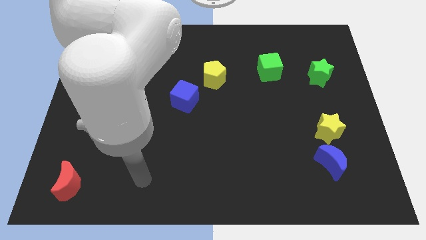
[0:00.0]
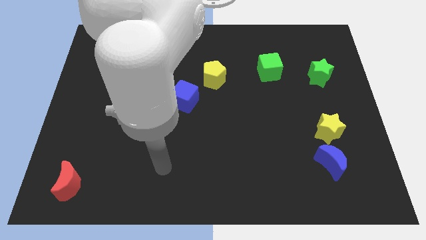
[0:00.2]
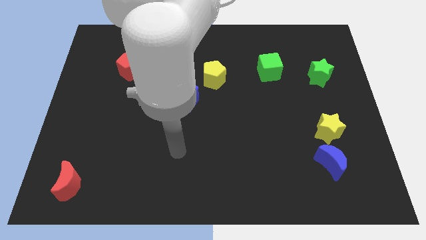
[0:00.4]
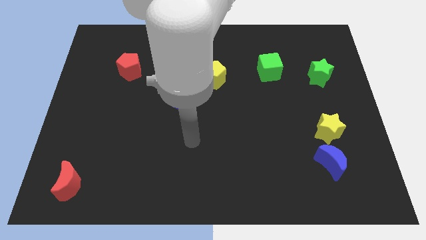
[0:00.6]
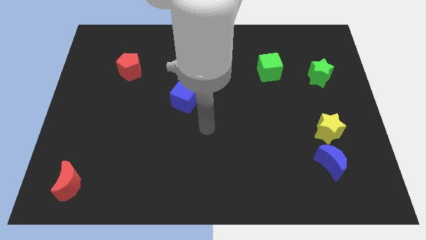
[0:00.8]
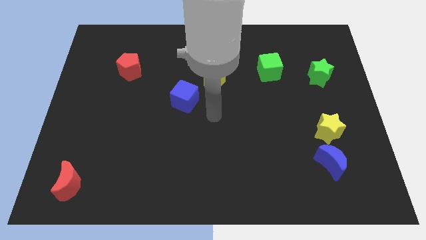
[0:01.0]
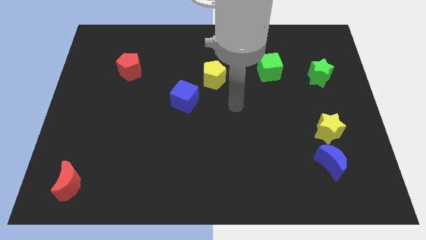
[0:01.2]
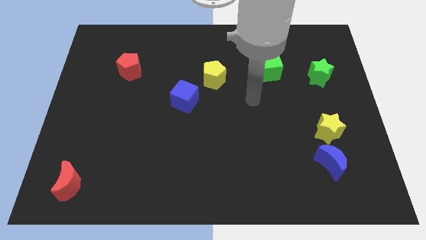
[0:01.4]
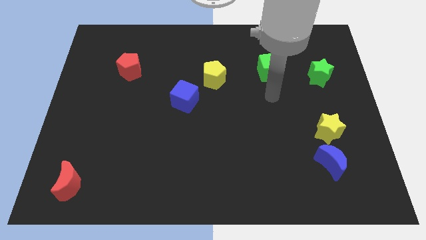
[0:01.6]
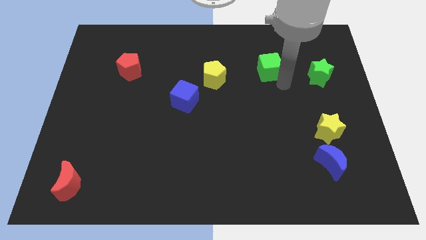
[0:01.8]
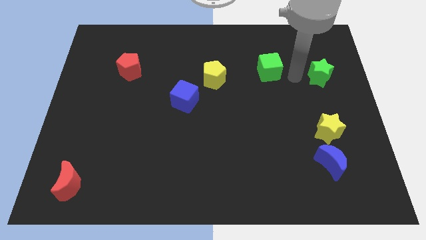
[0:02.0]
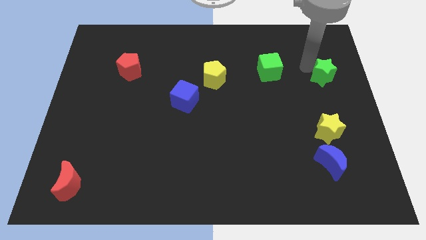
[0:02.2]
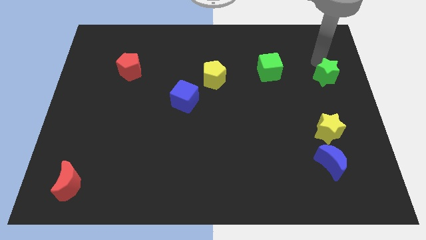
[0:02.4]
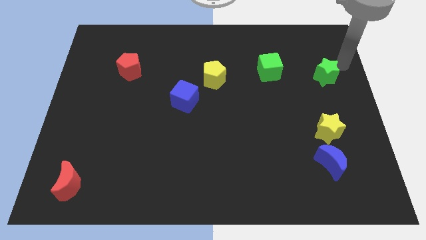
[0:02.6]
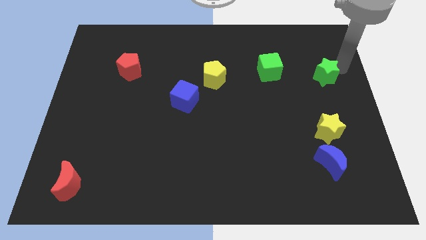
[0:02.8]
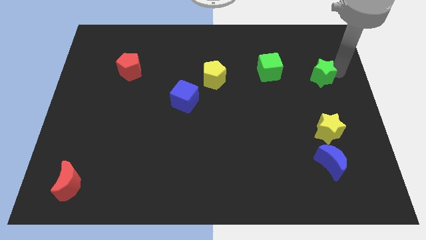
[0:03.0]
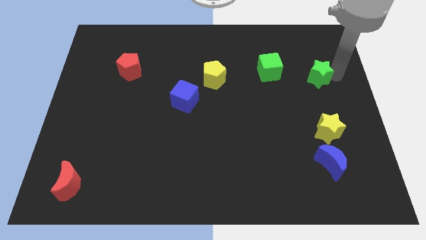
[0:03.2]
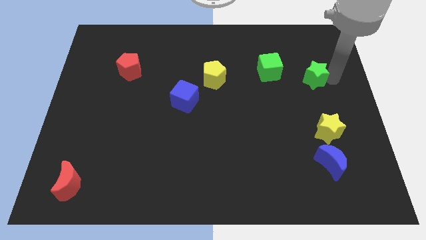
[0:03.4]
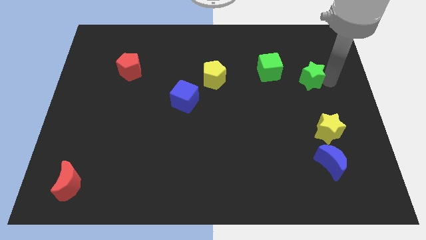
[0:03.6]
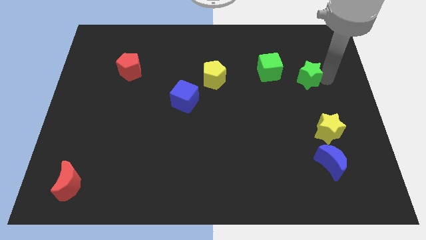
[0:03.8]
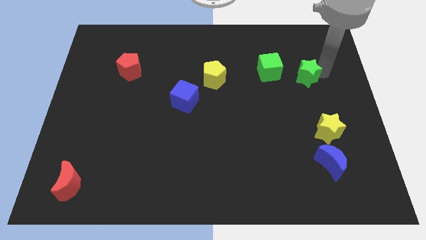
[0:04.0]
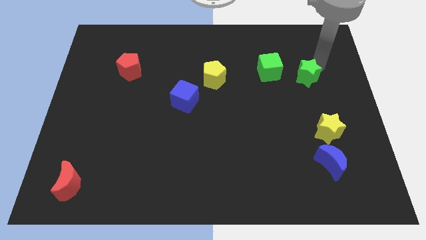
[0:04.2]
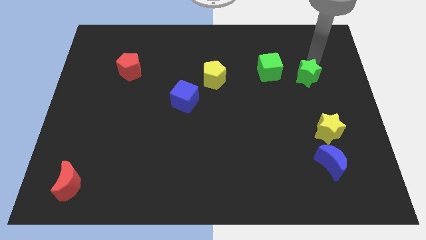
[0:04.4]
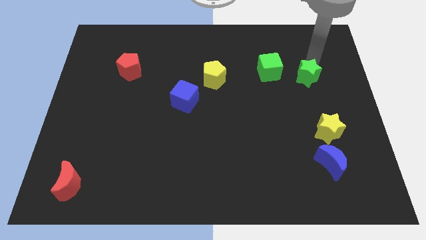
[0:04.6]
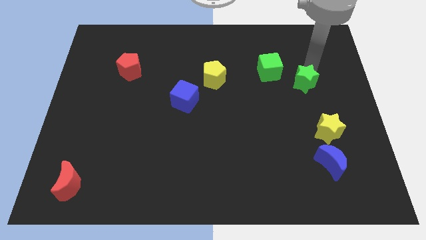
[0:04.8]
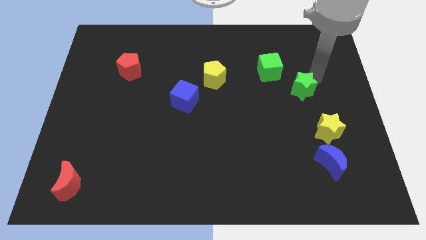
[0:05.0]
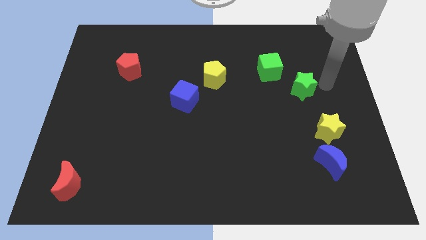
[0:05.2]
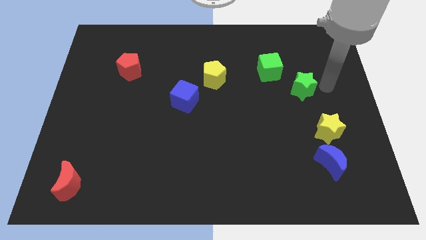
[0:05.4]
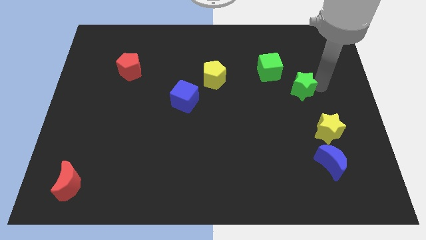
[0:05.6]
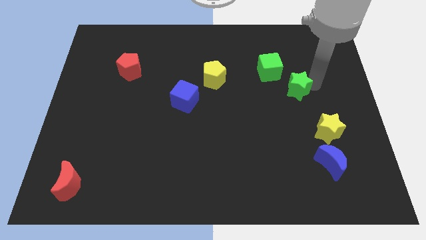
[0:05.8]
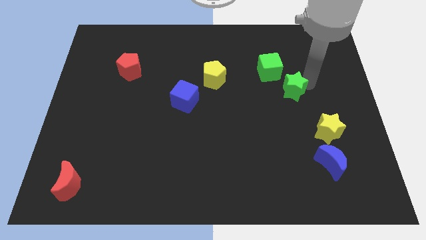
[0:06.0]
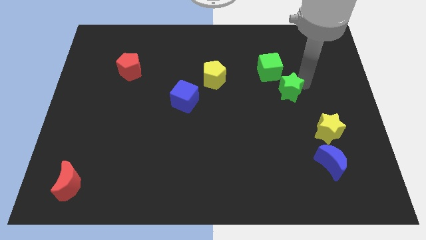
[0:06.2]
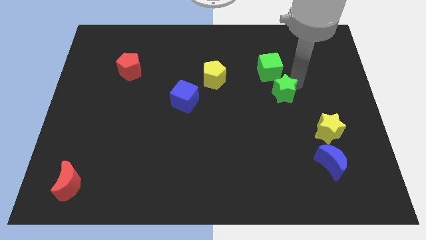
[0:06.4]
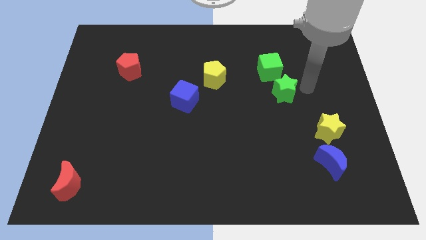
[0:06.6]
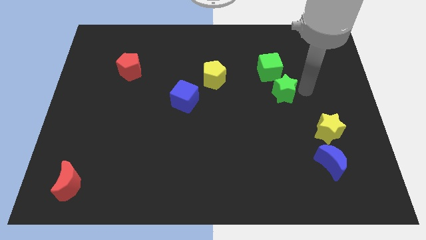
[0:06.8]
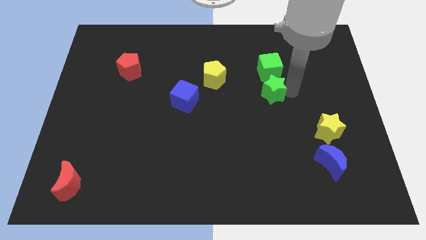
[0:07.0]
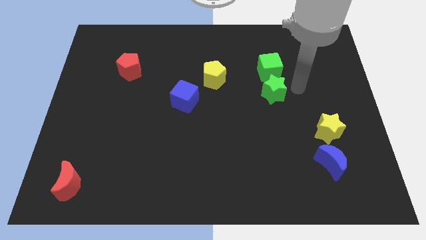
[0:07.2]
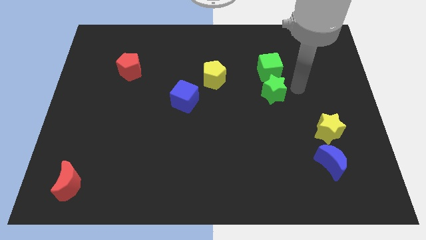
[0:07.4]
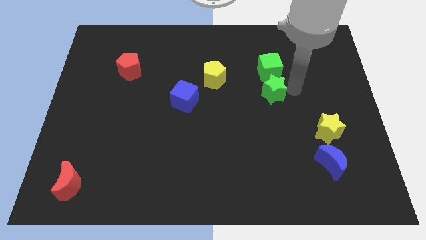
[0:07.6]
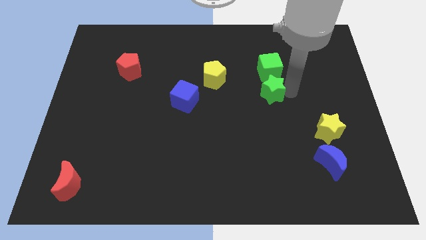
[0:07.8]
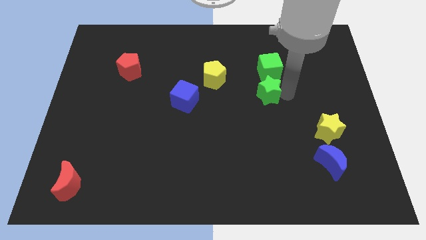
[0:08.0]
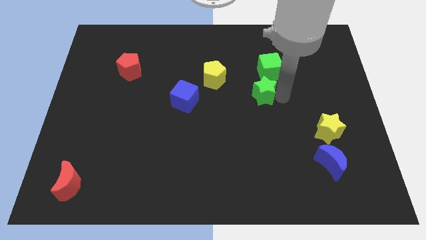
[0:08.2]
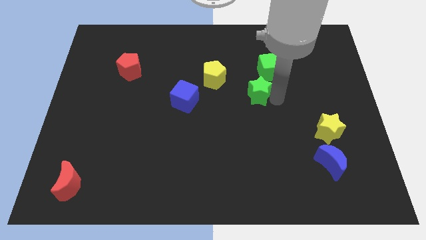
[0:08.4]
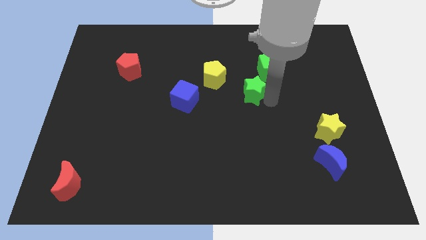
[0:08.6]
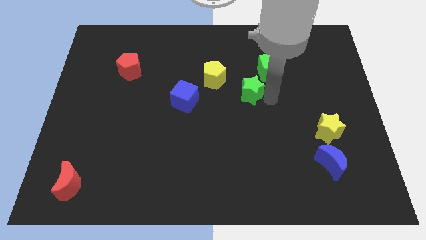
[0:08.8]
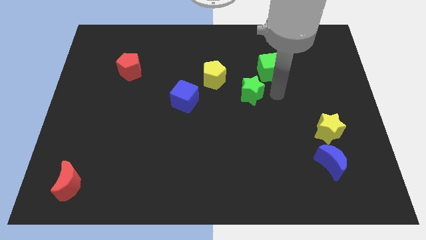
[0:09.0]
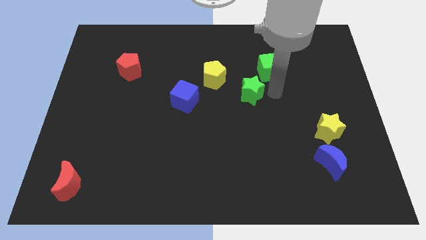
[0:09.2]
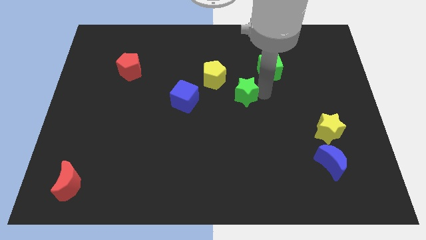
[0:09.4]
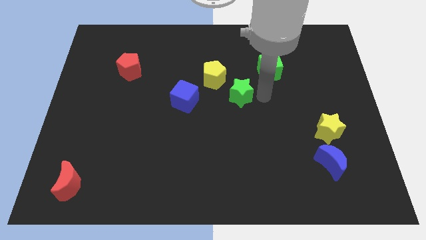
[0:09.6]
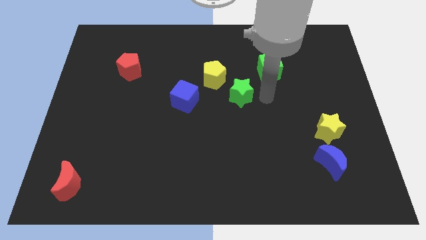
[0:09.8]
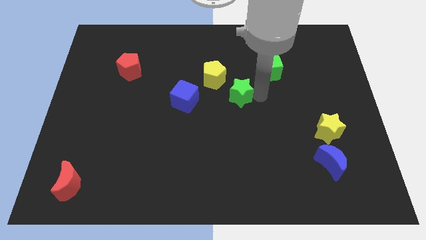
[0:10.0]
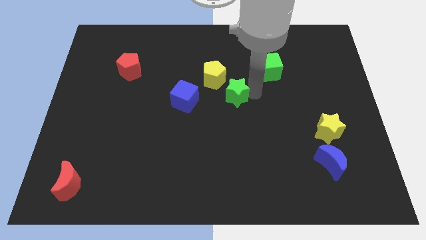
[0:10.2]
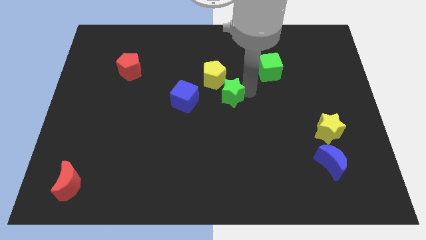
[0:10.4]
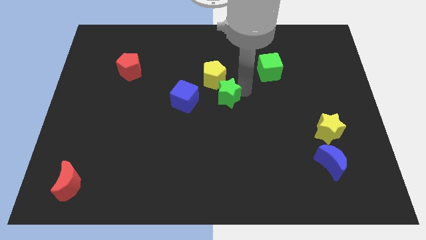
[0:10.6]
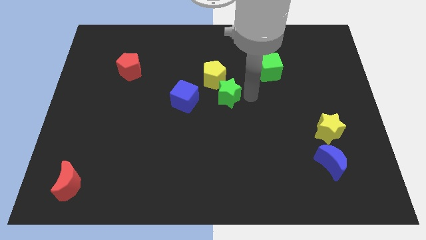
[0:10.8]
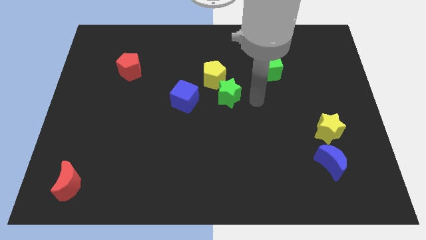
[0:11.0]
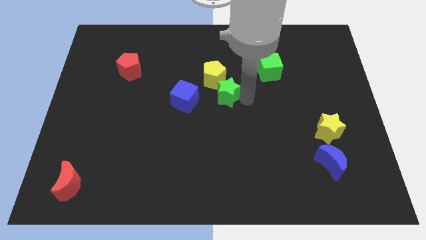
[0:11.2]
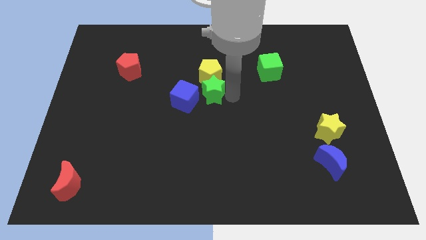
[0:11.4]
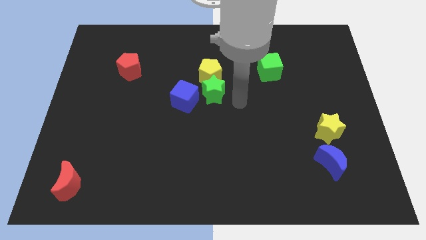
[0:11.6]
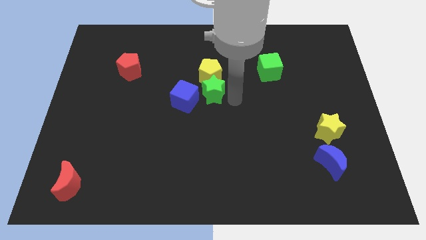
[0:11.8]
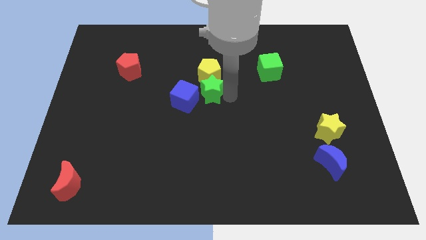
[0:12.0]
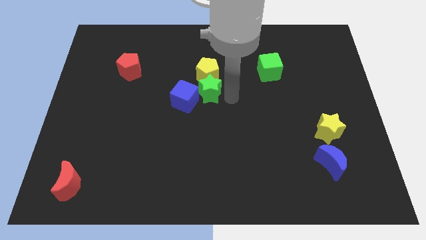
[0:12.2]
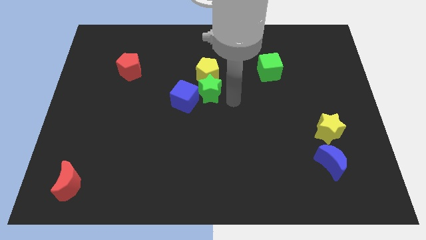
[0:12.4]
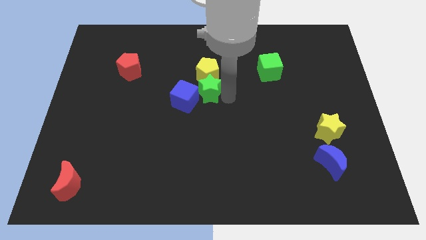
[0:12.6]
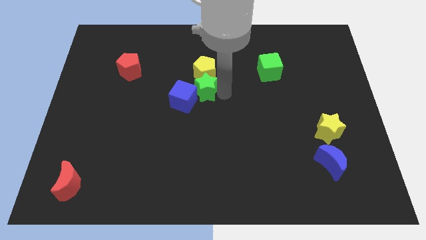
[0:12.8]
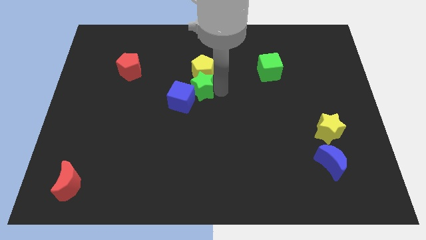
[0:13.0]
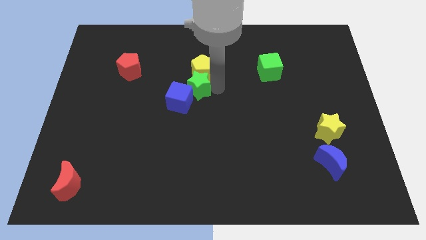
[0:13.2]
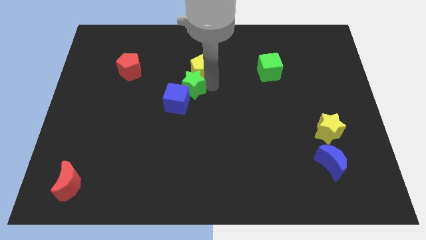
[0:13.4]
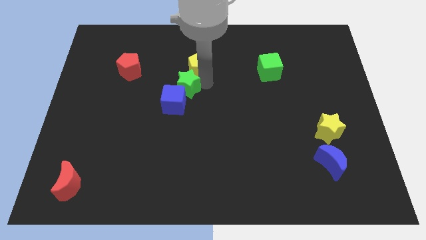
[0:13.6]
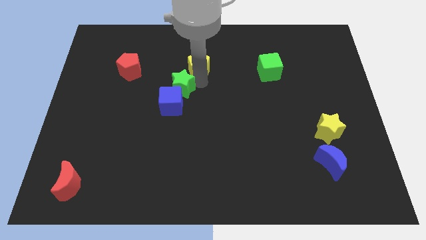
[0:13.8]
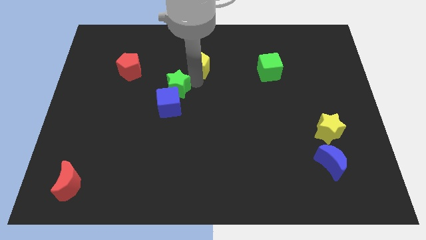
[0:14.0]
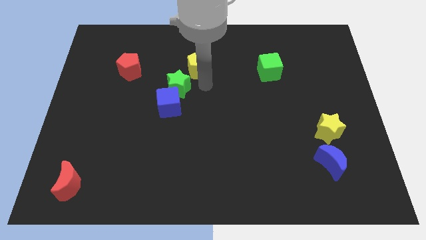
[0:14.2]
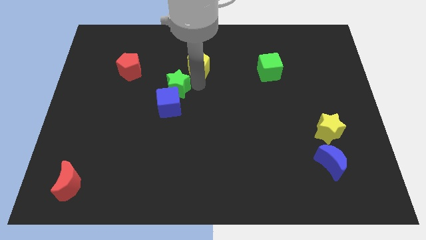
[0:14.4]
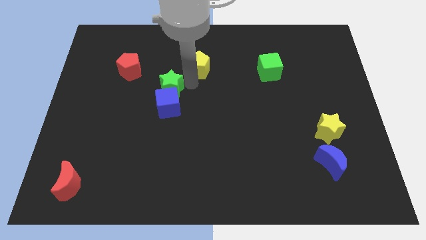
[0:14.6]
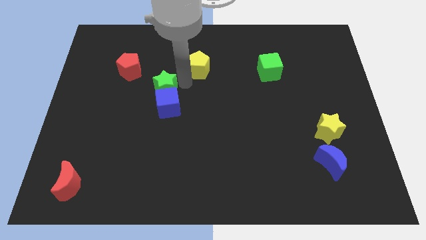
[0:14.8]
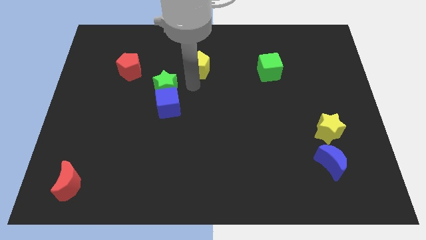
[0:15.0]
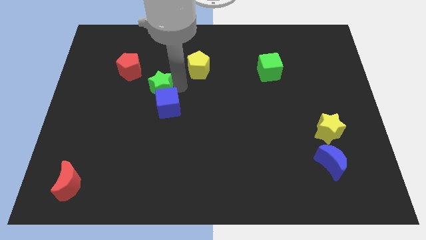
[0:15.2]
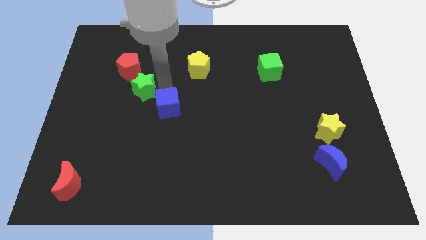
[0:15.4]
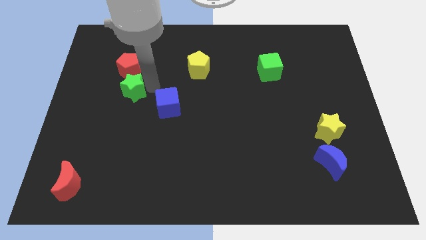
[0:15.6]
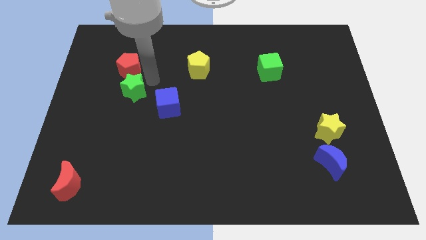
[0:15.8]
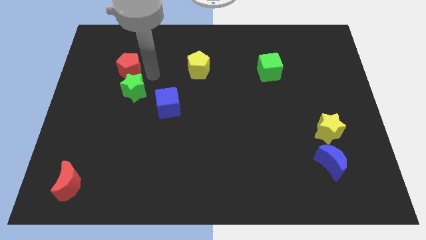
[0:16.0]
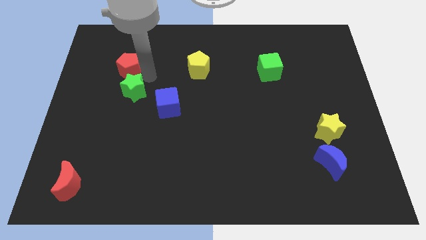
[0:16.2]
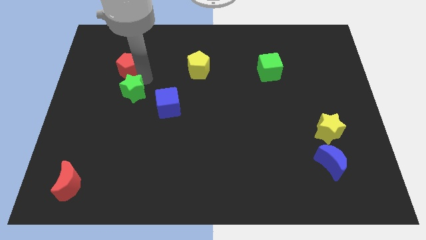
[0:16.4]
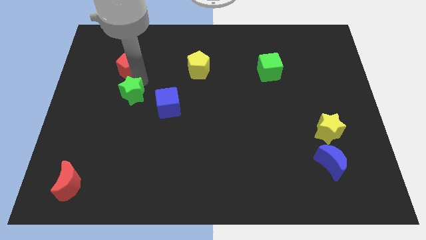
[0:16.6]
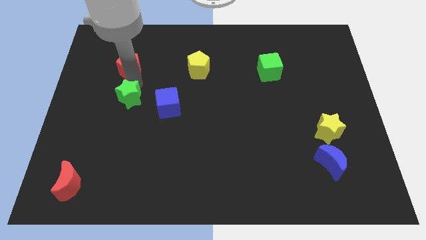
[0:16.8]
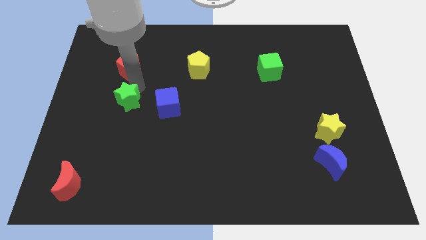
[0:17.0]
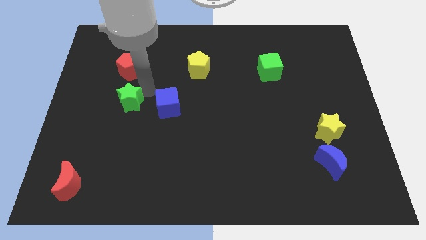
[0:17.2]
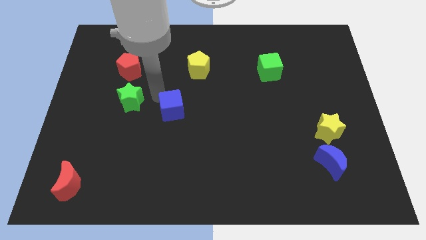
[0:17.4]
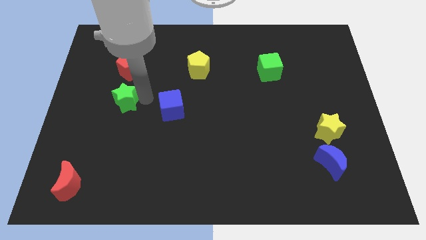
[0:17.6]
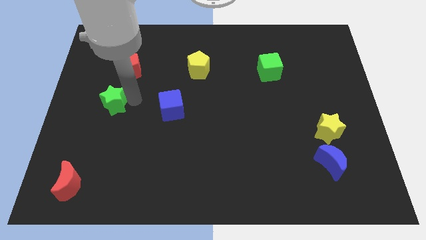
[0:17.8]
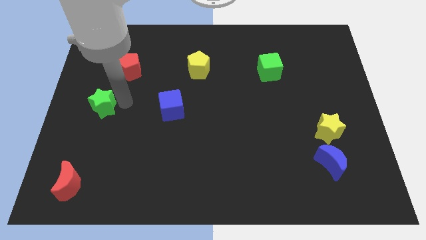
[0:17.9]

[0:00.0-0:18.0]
move the green star to the left side
